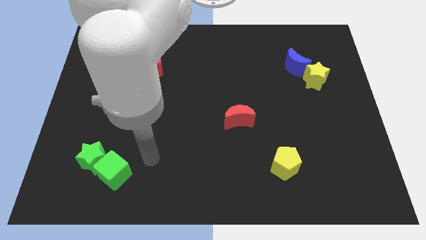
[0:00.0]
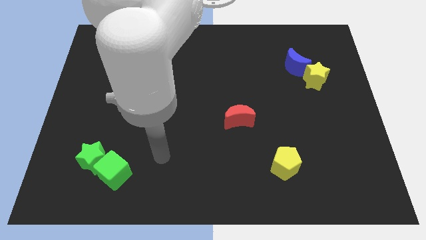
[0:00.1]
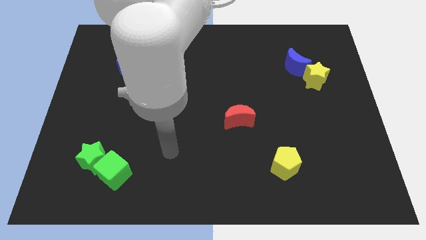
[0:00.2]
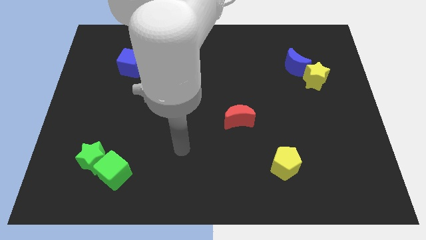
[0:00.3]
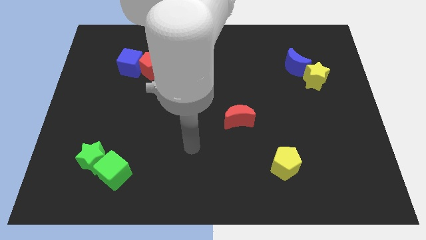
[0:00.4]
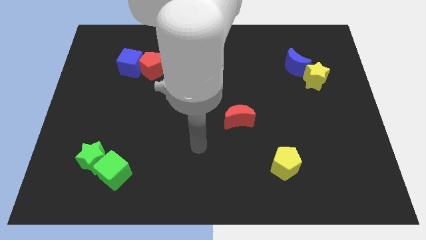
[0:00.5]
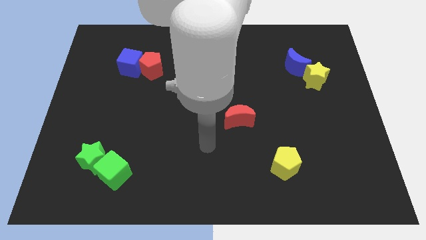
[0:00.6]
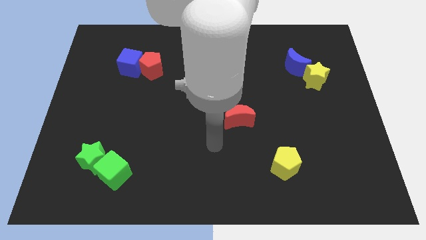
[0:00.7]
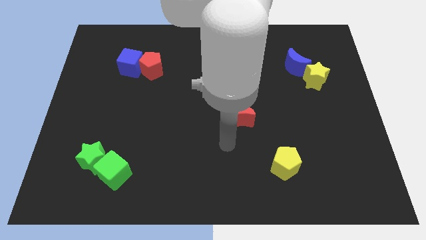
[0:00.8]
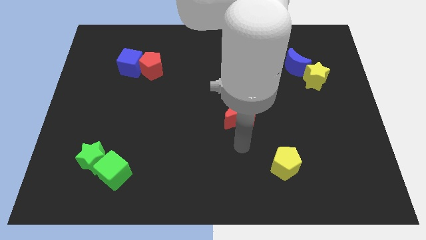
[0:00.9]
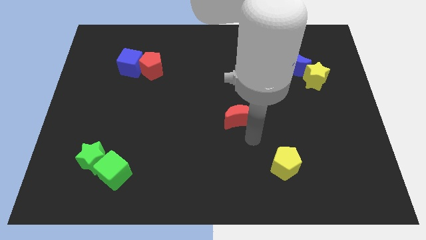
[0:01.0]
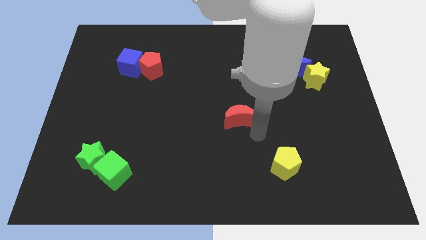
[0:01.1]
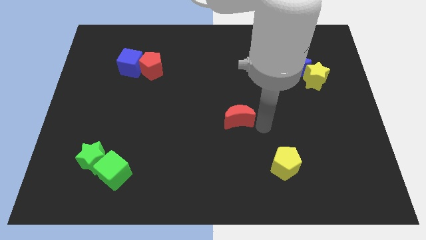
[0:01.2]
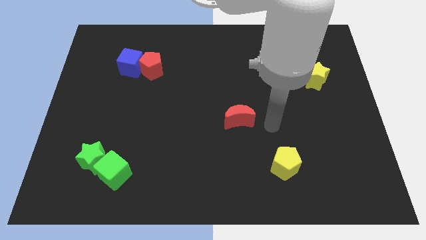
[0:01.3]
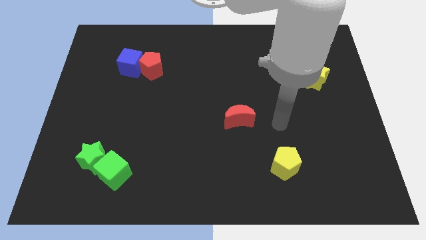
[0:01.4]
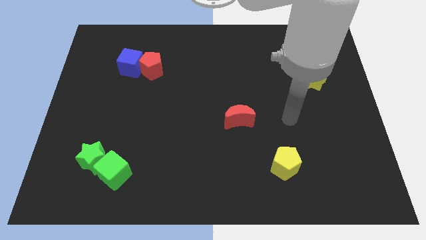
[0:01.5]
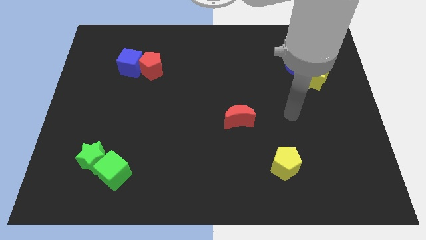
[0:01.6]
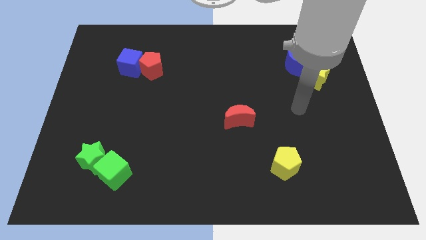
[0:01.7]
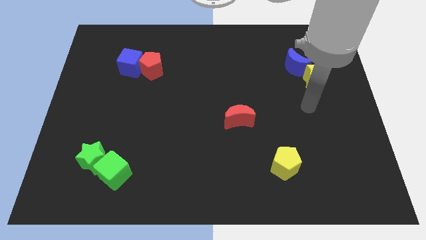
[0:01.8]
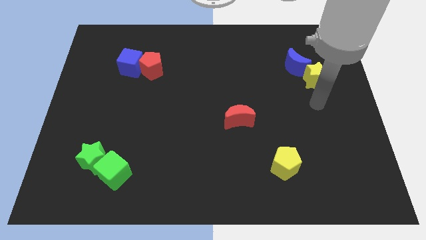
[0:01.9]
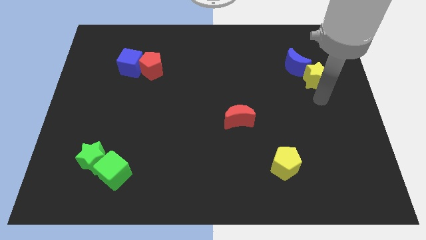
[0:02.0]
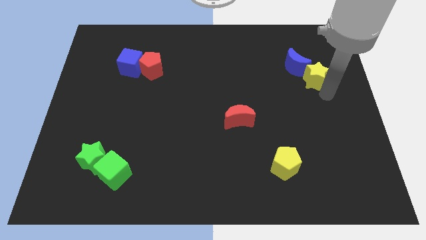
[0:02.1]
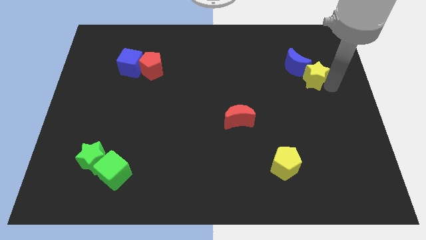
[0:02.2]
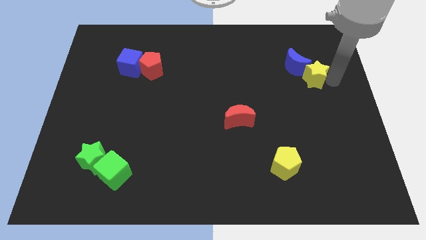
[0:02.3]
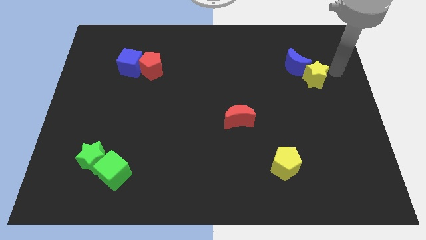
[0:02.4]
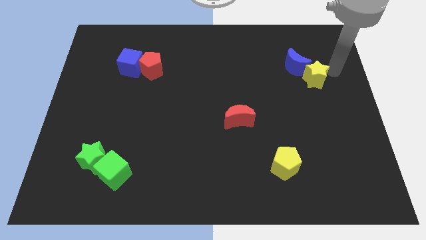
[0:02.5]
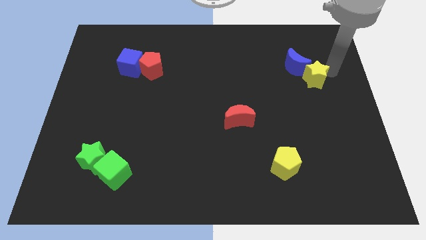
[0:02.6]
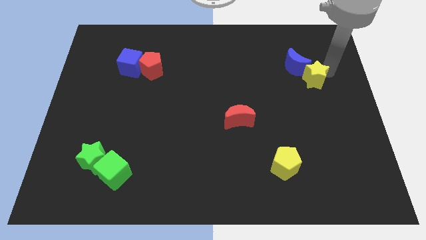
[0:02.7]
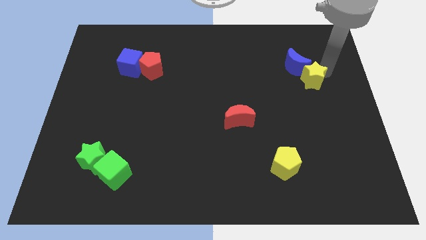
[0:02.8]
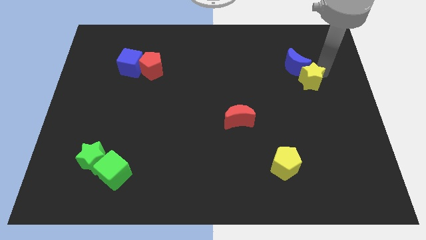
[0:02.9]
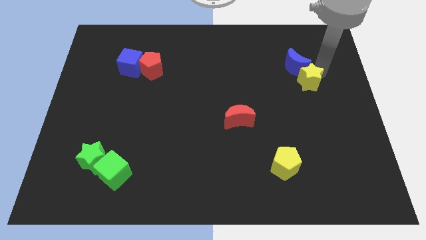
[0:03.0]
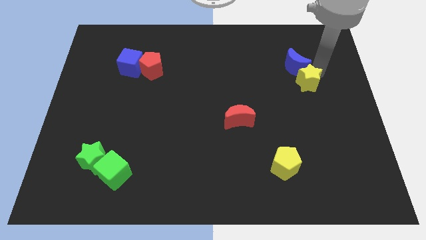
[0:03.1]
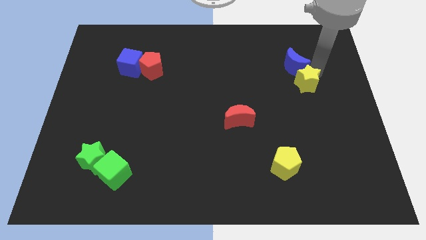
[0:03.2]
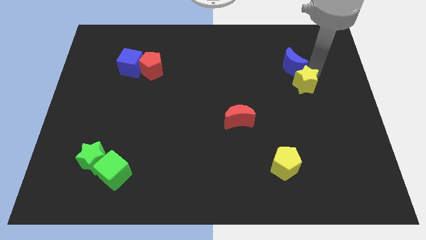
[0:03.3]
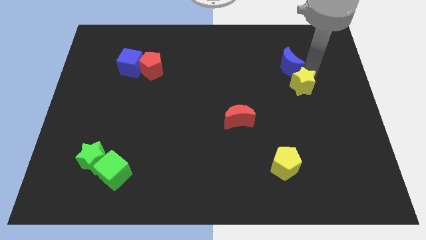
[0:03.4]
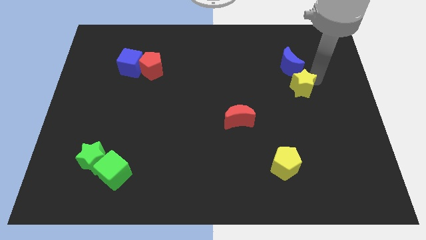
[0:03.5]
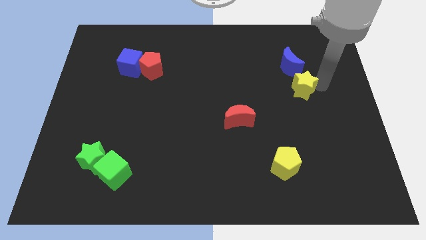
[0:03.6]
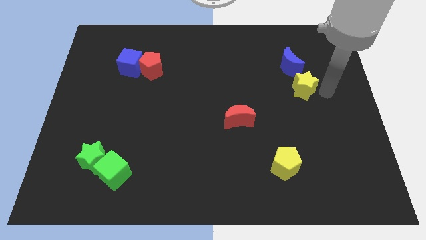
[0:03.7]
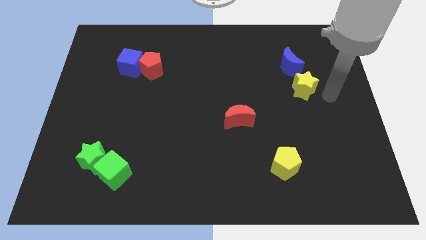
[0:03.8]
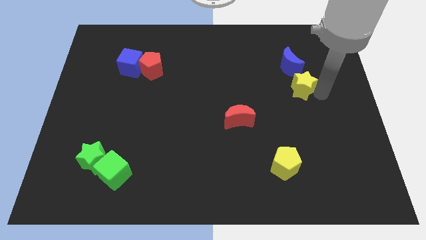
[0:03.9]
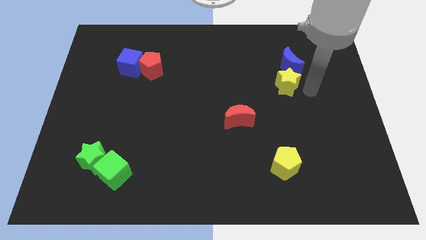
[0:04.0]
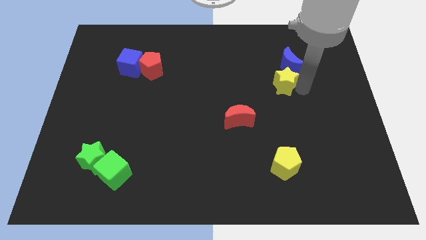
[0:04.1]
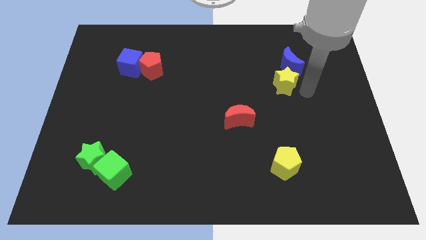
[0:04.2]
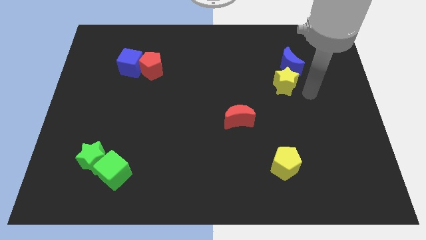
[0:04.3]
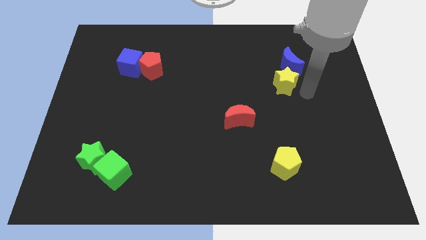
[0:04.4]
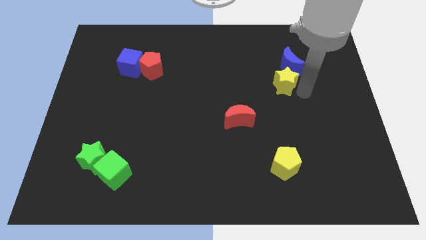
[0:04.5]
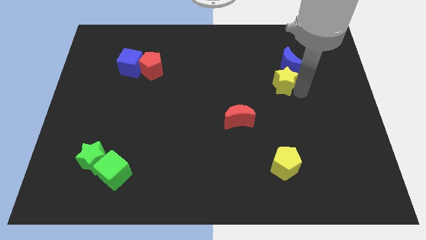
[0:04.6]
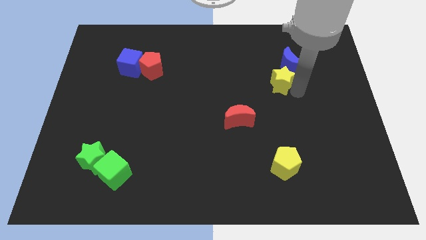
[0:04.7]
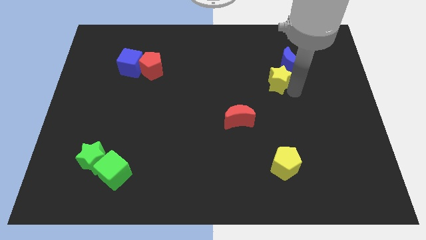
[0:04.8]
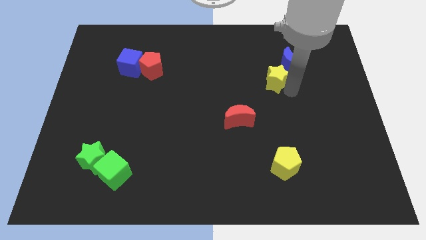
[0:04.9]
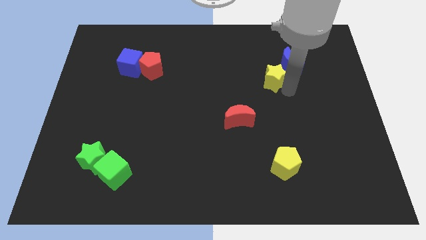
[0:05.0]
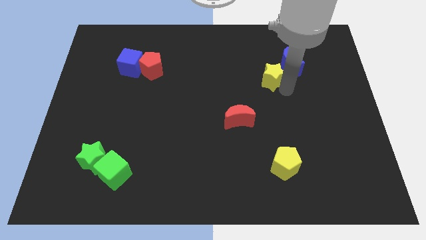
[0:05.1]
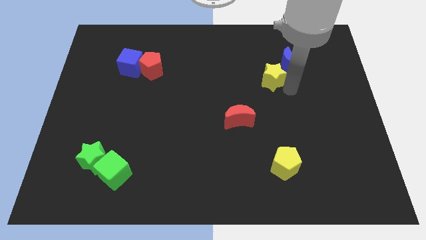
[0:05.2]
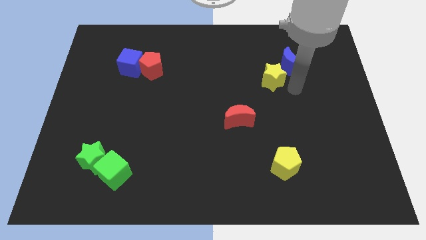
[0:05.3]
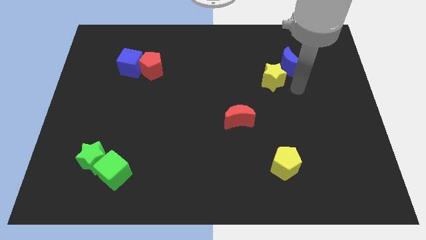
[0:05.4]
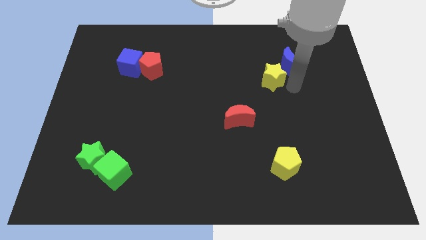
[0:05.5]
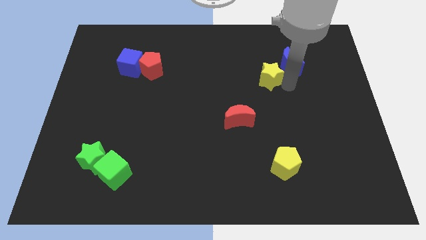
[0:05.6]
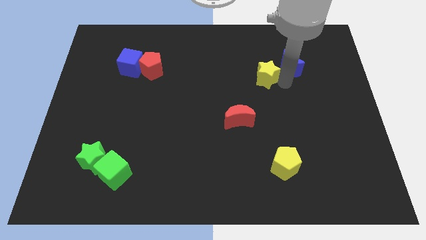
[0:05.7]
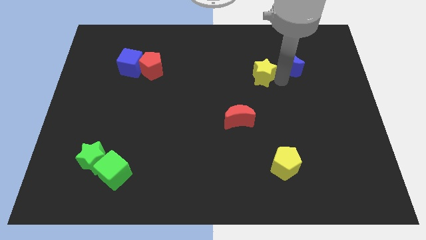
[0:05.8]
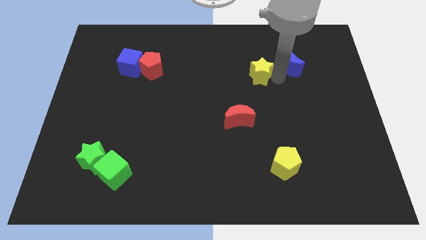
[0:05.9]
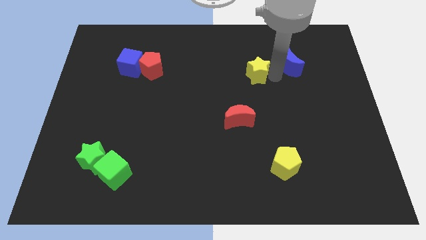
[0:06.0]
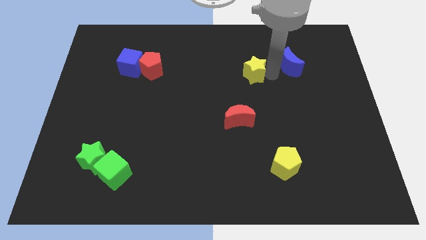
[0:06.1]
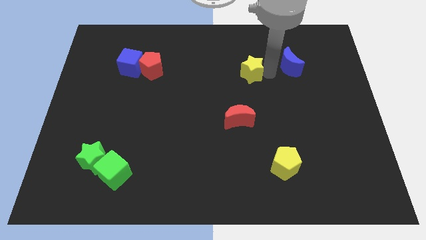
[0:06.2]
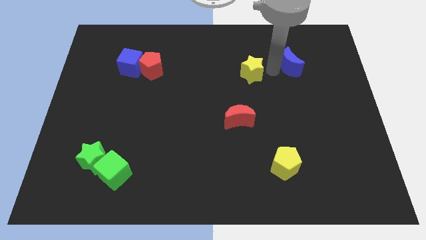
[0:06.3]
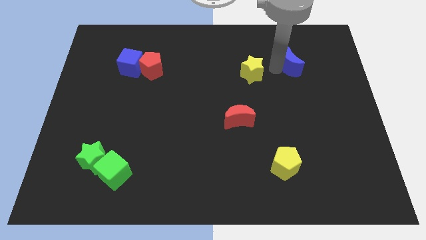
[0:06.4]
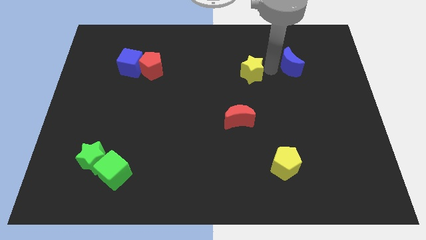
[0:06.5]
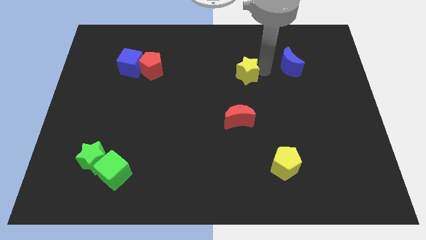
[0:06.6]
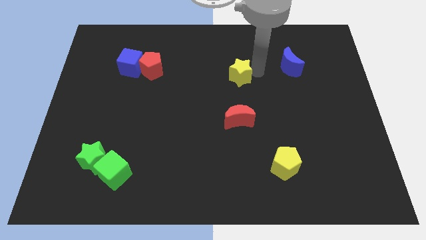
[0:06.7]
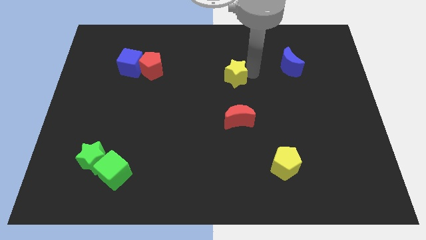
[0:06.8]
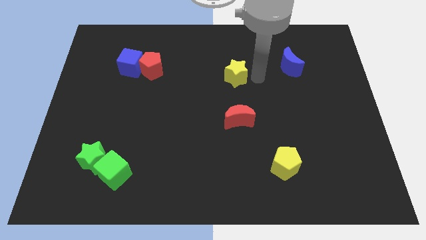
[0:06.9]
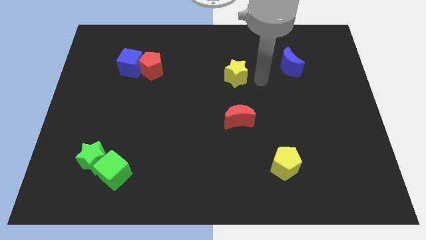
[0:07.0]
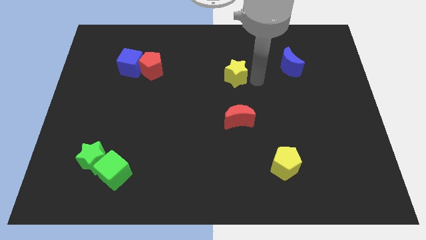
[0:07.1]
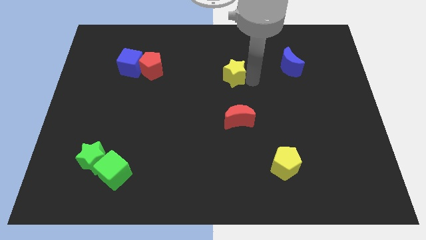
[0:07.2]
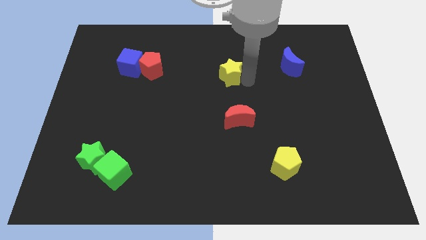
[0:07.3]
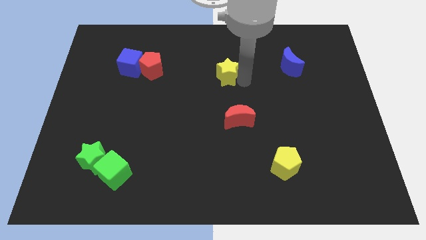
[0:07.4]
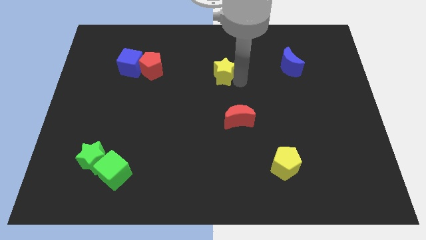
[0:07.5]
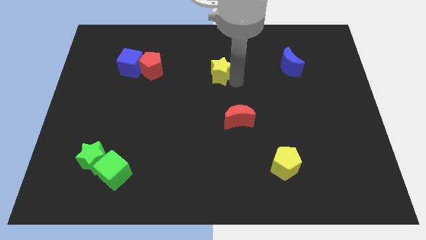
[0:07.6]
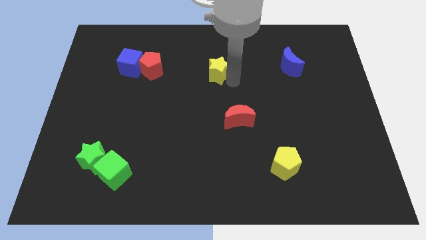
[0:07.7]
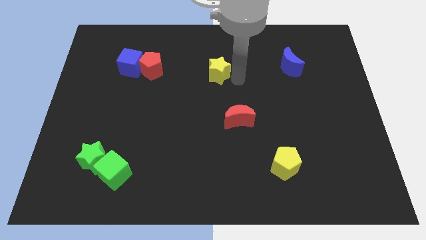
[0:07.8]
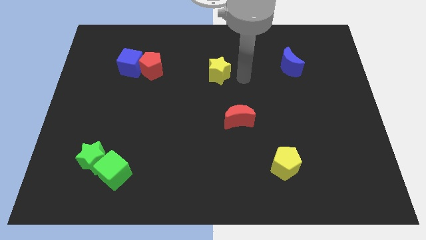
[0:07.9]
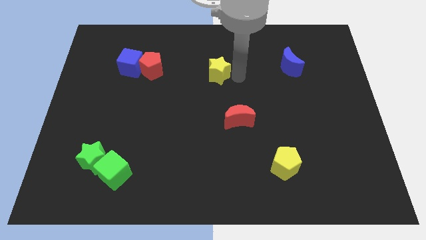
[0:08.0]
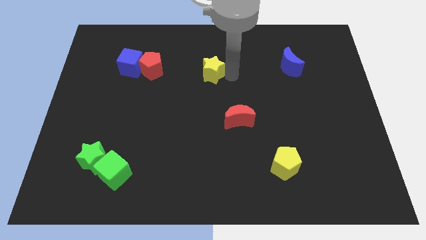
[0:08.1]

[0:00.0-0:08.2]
push the yellow star to the right of the red pentagon
